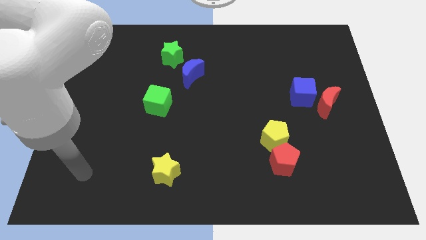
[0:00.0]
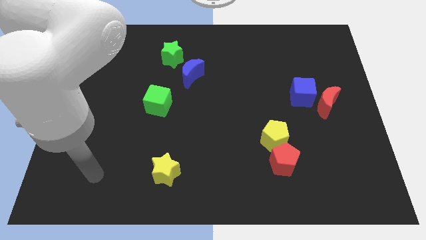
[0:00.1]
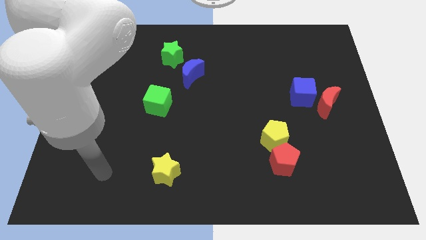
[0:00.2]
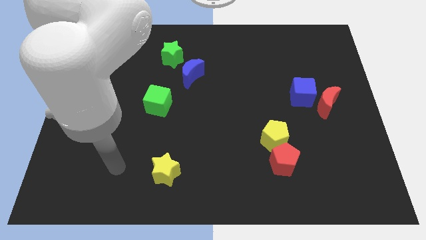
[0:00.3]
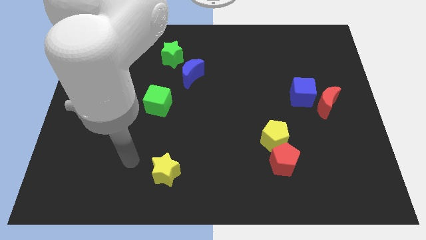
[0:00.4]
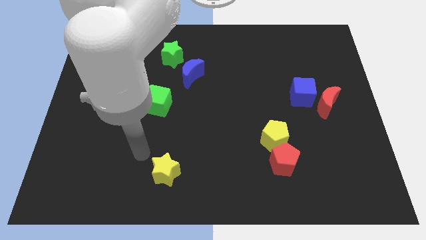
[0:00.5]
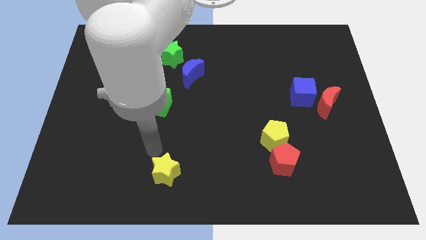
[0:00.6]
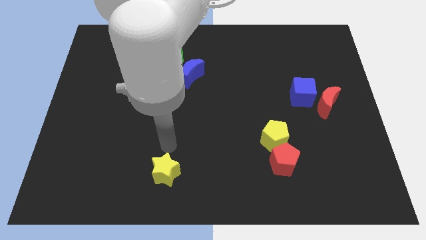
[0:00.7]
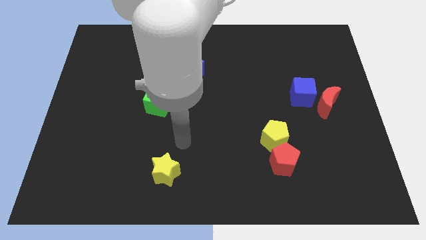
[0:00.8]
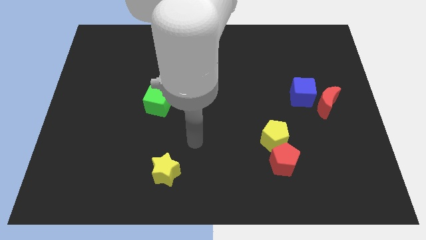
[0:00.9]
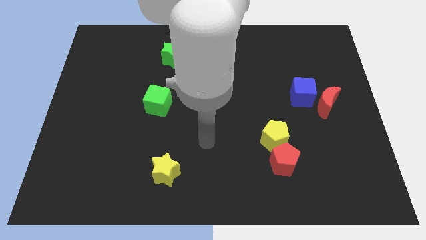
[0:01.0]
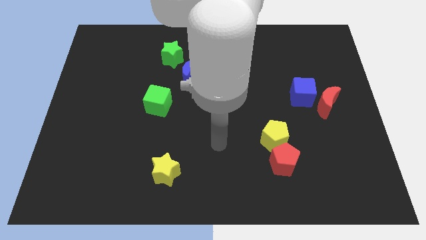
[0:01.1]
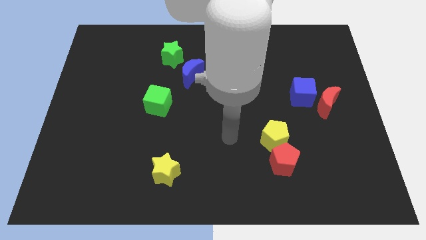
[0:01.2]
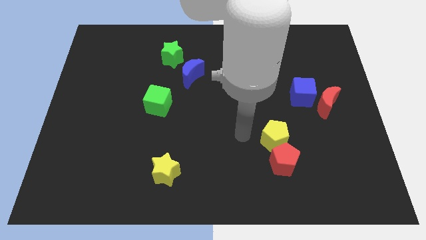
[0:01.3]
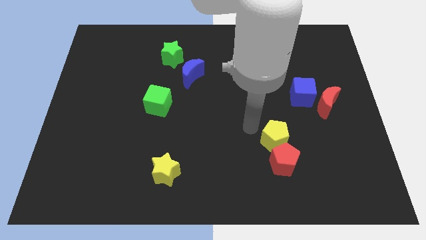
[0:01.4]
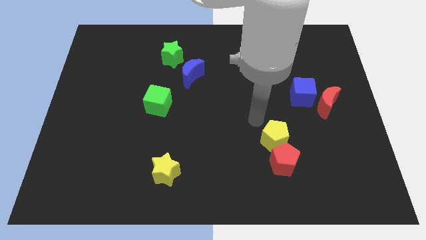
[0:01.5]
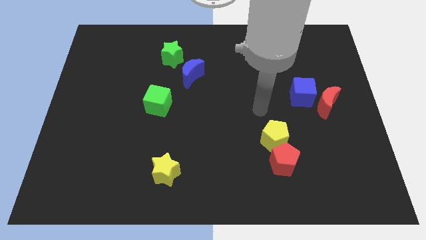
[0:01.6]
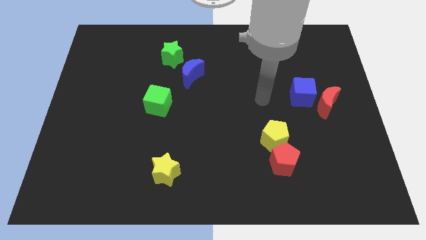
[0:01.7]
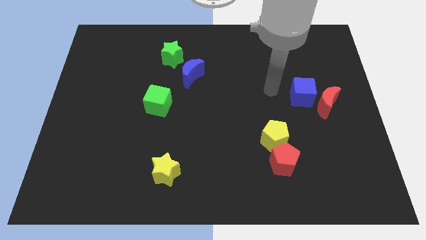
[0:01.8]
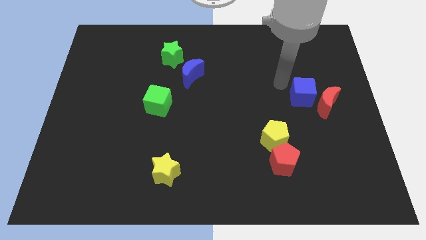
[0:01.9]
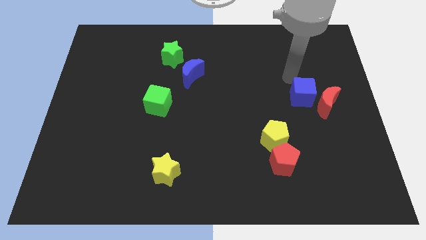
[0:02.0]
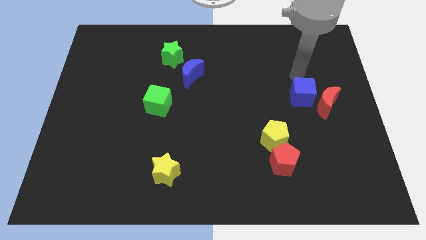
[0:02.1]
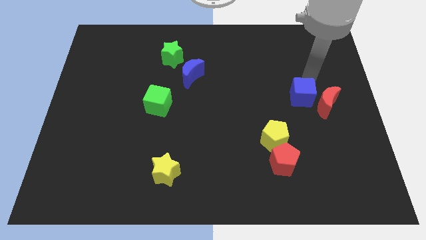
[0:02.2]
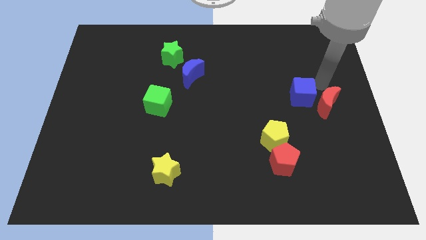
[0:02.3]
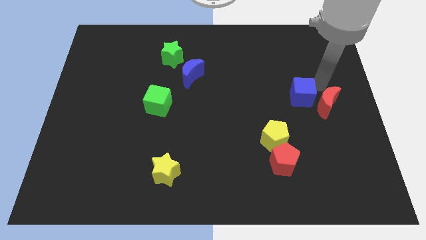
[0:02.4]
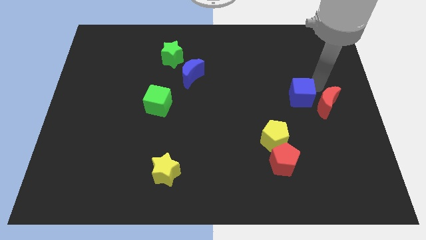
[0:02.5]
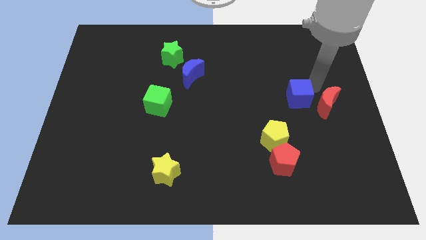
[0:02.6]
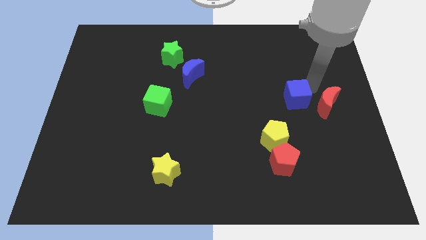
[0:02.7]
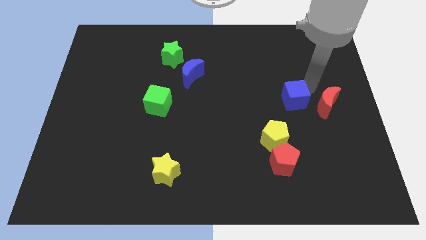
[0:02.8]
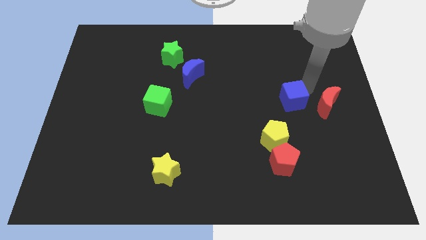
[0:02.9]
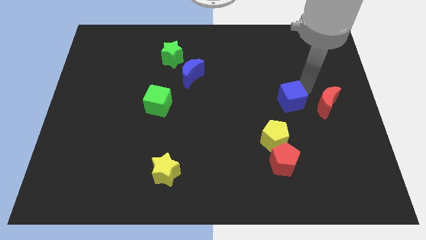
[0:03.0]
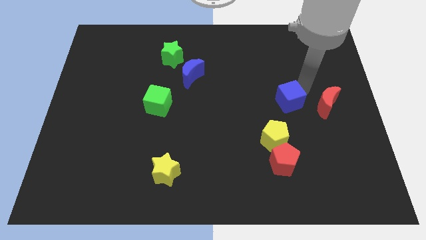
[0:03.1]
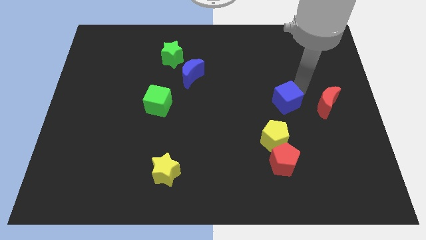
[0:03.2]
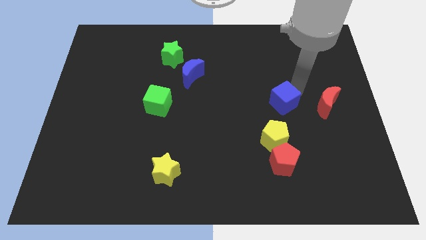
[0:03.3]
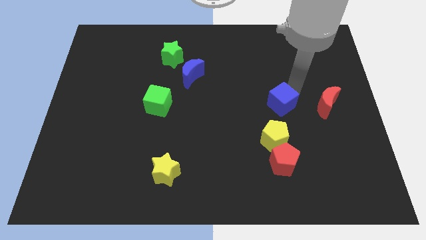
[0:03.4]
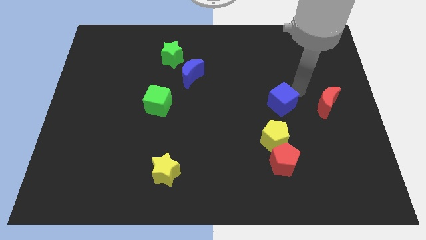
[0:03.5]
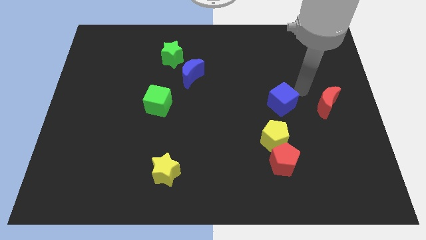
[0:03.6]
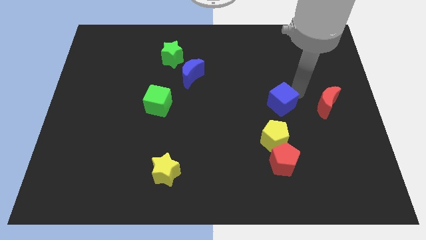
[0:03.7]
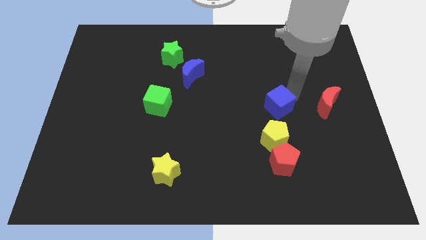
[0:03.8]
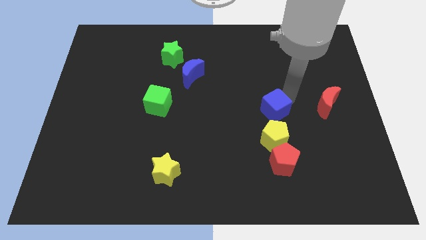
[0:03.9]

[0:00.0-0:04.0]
slightly push the blue cube downwards and to the left

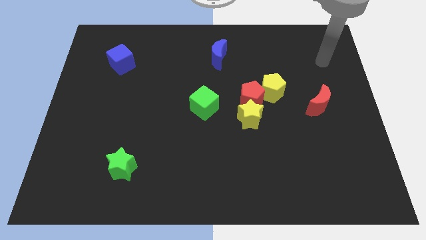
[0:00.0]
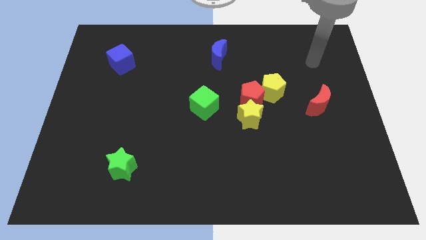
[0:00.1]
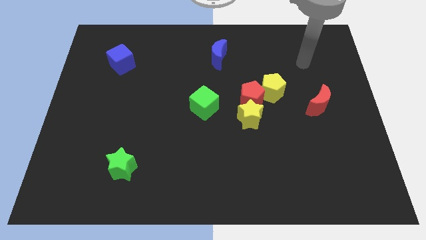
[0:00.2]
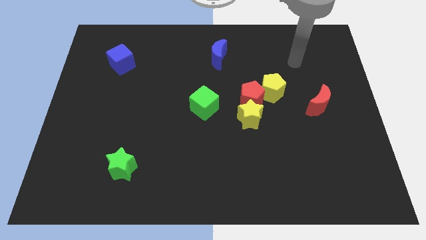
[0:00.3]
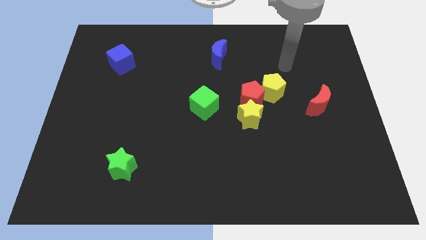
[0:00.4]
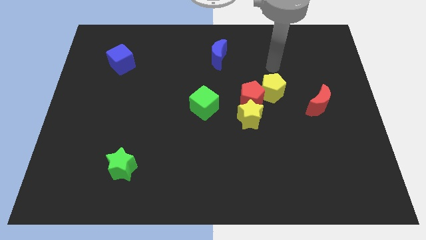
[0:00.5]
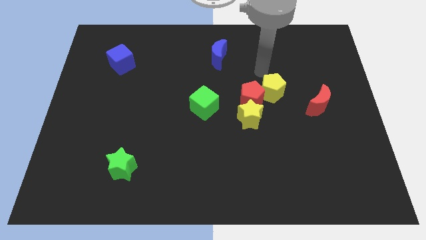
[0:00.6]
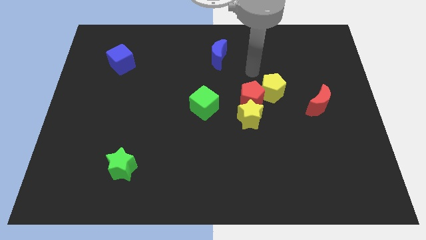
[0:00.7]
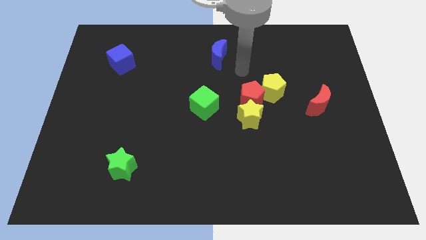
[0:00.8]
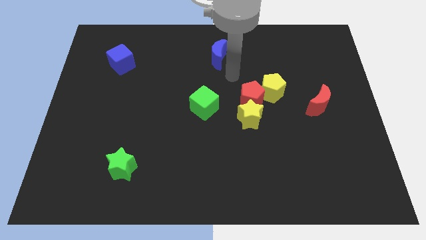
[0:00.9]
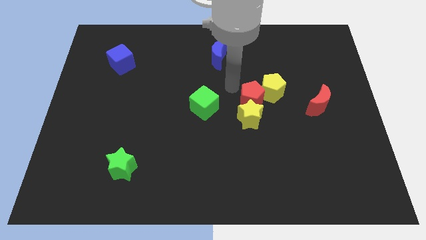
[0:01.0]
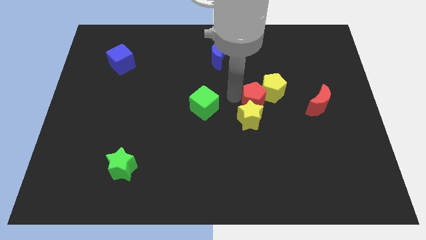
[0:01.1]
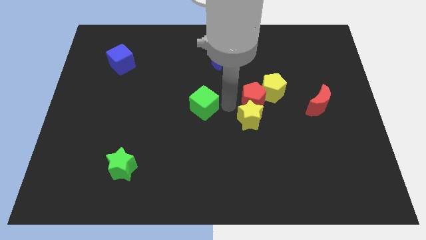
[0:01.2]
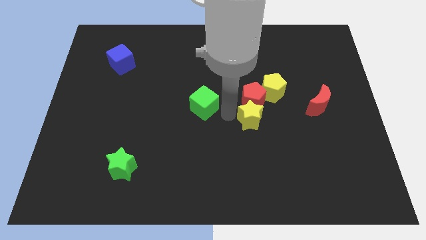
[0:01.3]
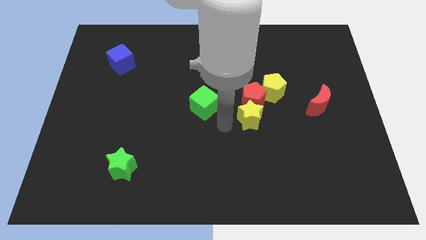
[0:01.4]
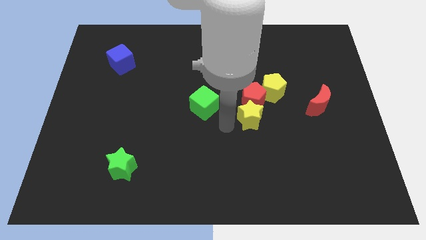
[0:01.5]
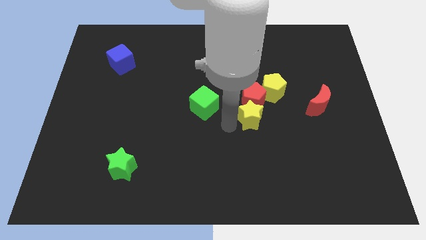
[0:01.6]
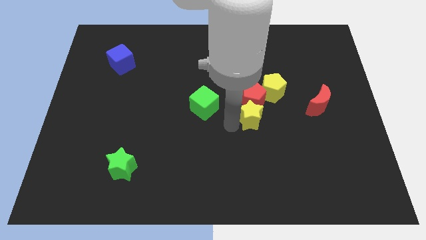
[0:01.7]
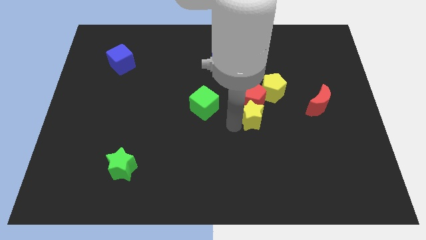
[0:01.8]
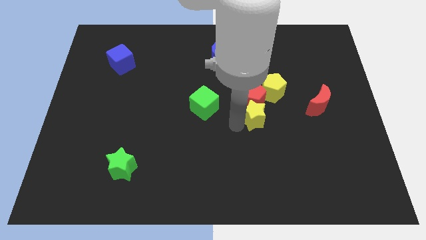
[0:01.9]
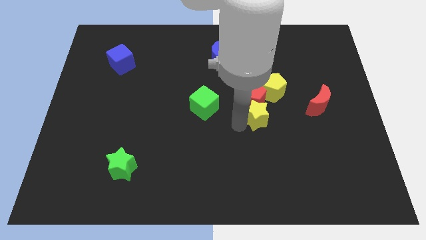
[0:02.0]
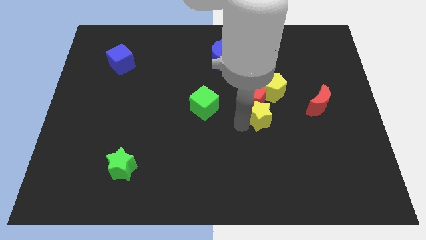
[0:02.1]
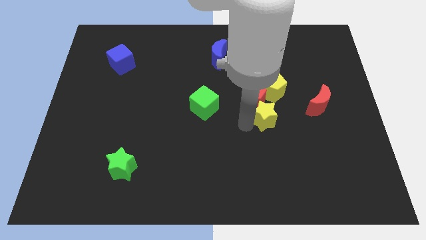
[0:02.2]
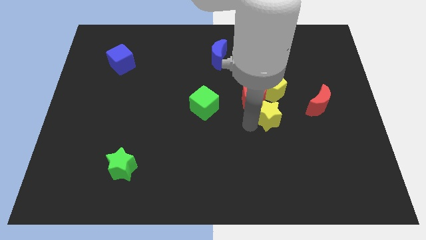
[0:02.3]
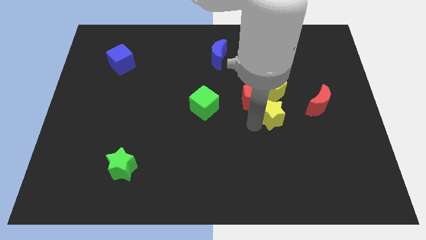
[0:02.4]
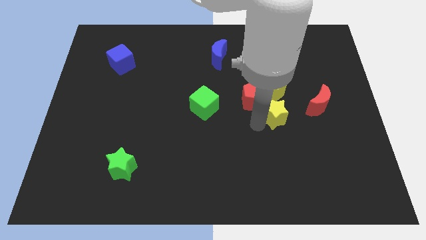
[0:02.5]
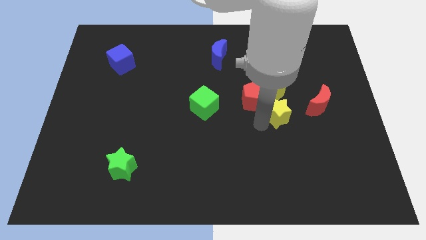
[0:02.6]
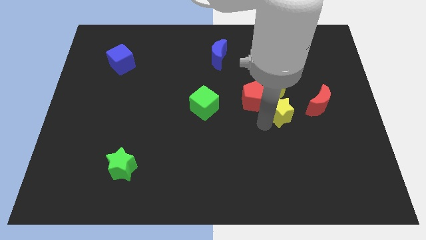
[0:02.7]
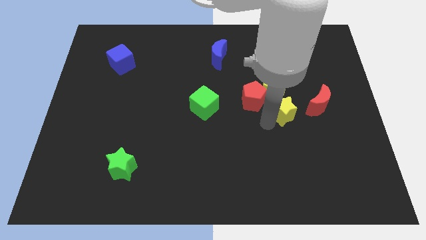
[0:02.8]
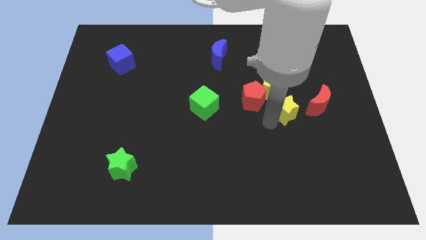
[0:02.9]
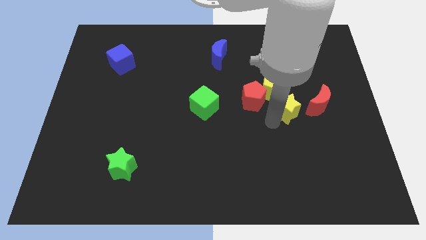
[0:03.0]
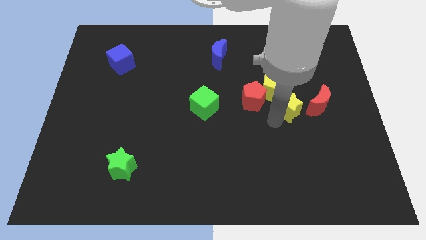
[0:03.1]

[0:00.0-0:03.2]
slide the yellow star a little bit up and right diagonally

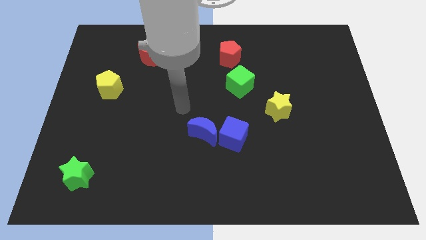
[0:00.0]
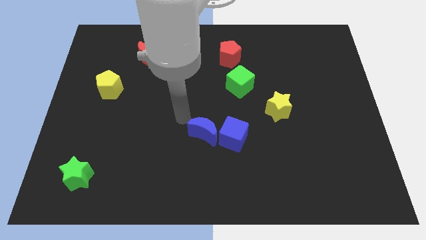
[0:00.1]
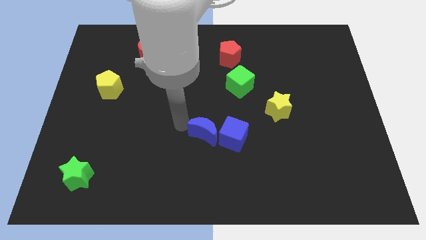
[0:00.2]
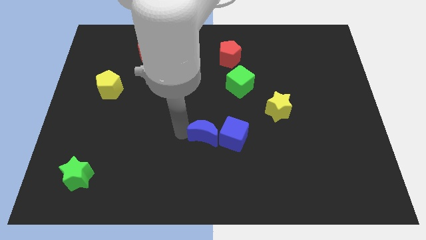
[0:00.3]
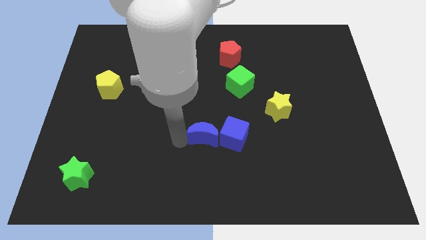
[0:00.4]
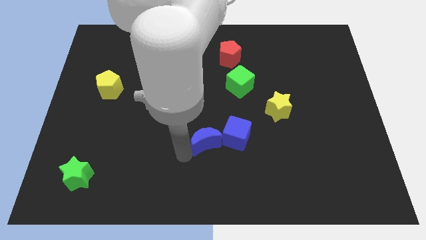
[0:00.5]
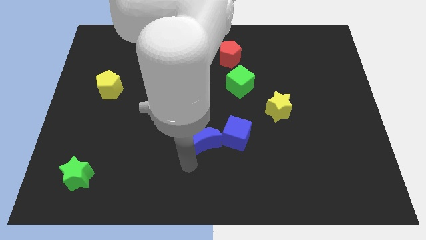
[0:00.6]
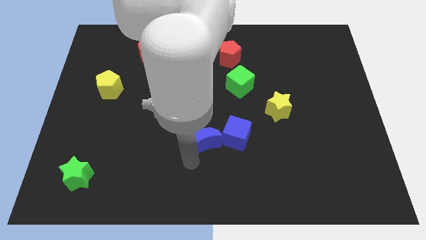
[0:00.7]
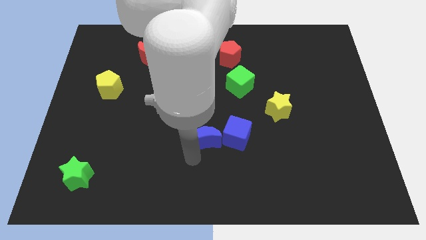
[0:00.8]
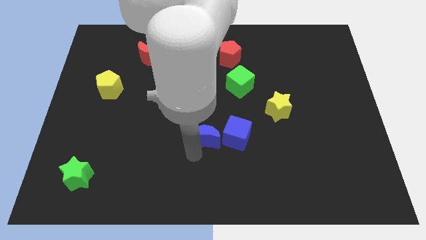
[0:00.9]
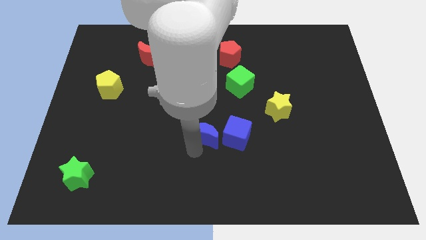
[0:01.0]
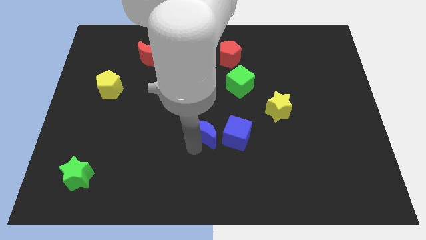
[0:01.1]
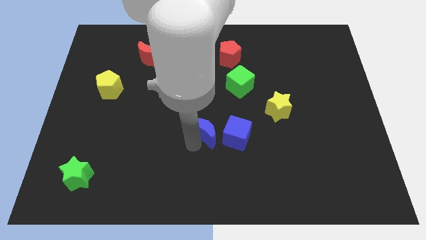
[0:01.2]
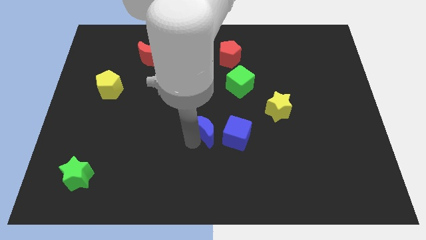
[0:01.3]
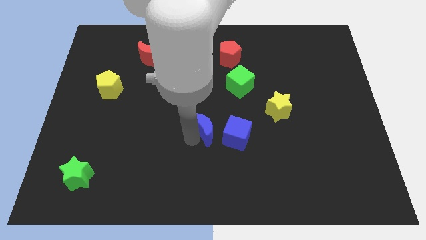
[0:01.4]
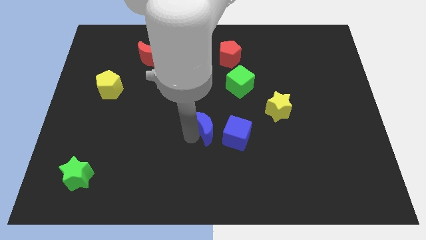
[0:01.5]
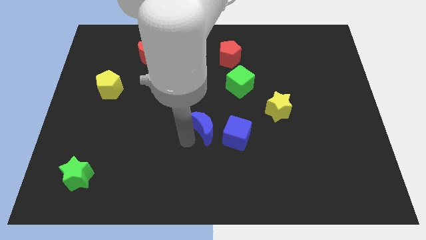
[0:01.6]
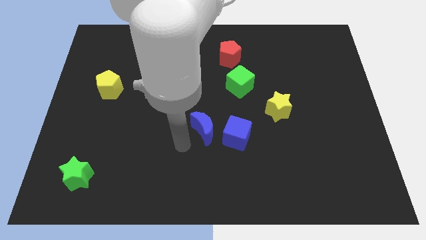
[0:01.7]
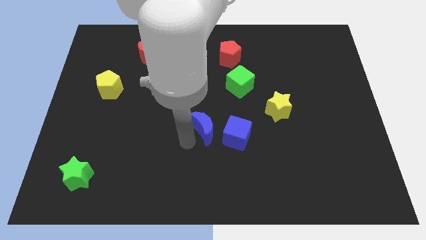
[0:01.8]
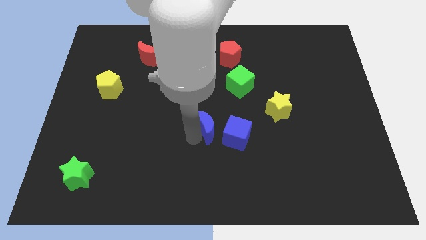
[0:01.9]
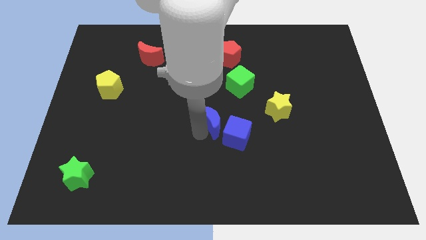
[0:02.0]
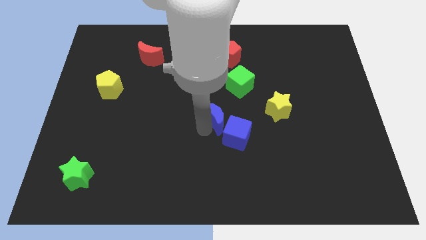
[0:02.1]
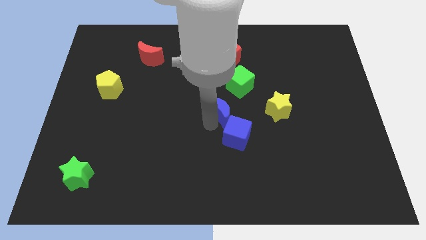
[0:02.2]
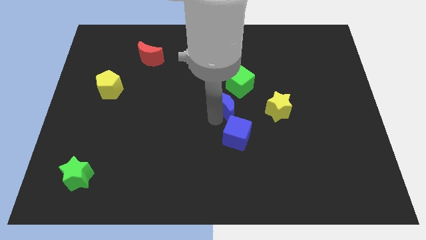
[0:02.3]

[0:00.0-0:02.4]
push the blue moon upwards and to the right slightly
